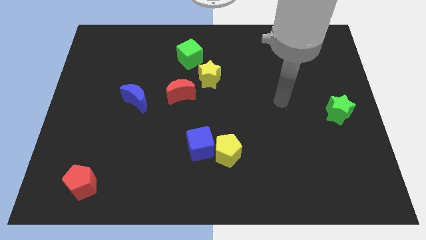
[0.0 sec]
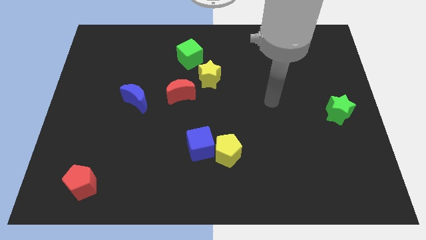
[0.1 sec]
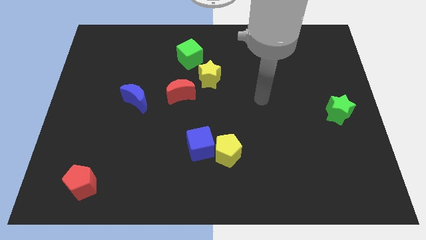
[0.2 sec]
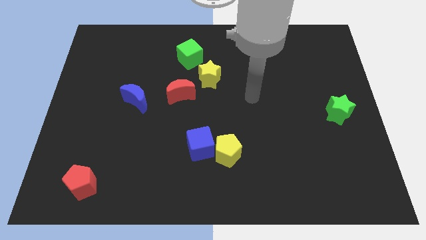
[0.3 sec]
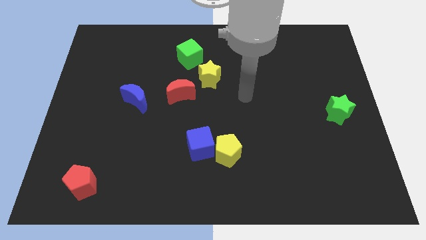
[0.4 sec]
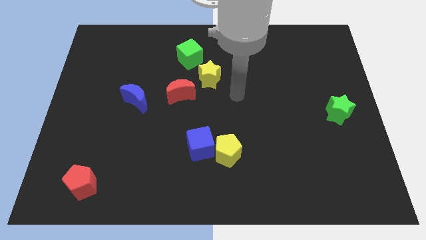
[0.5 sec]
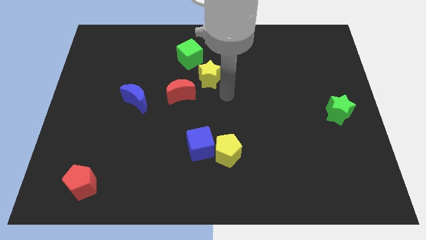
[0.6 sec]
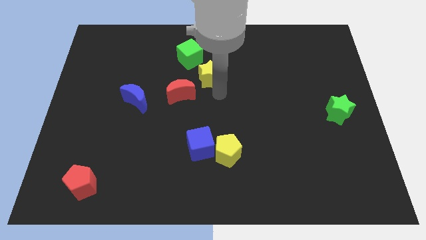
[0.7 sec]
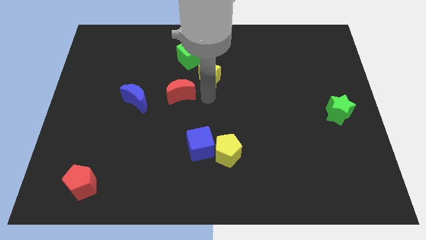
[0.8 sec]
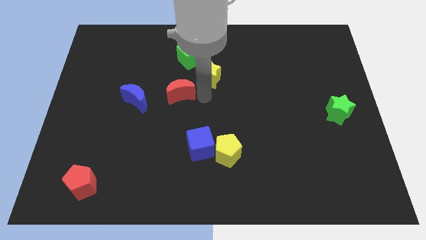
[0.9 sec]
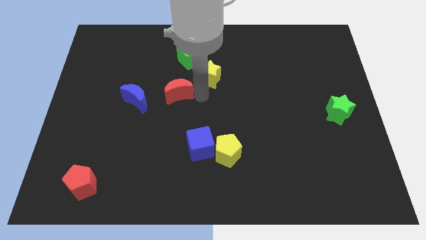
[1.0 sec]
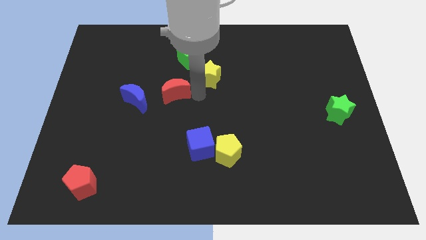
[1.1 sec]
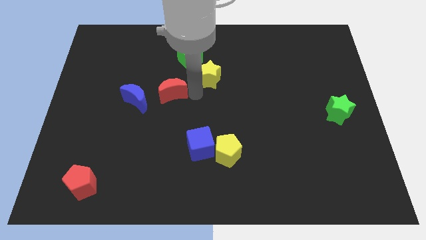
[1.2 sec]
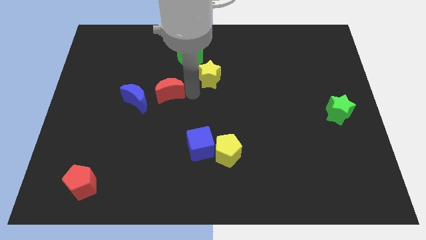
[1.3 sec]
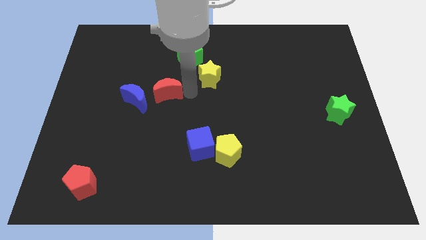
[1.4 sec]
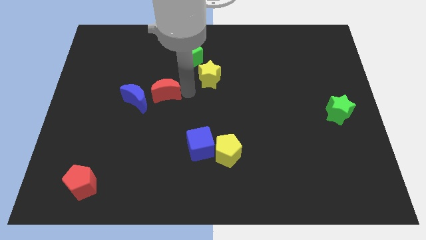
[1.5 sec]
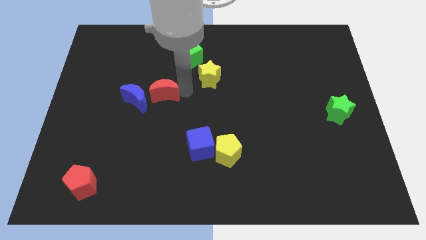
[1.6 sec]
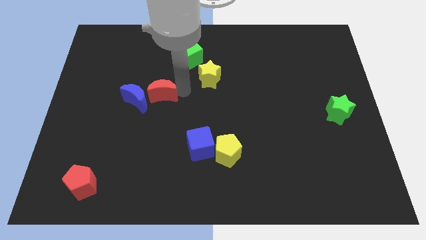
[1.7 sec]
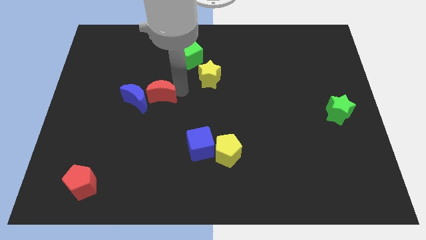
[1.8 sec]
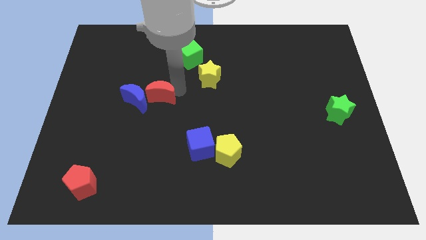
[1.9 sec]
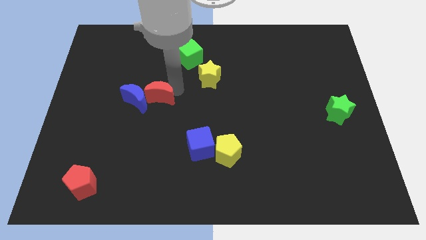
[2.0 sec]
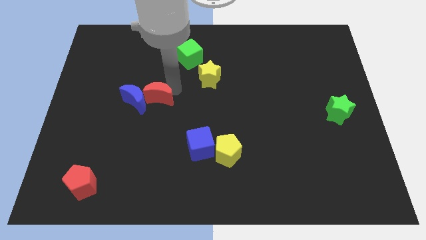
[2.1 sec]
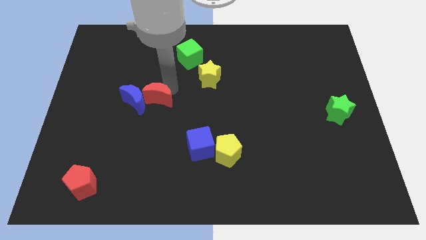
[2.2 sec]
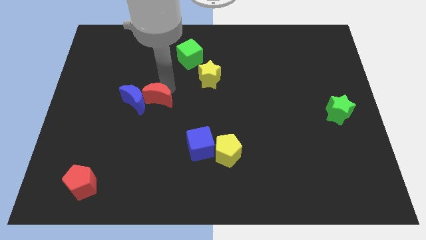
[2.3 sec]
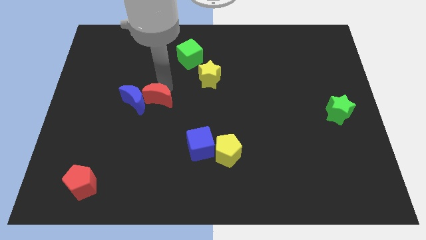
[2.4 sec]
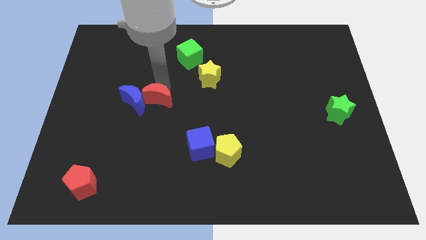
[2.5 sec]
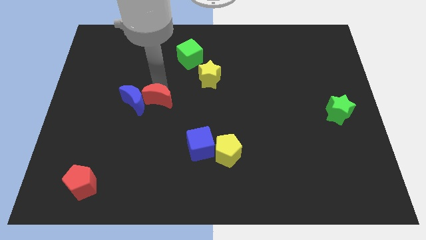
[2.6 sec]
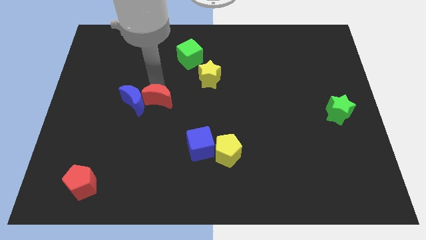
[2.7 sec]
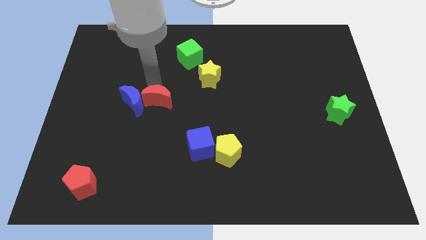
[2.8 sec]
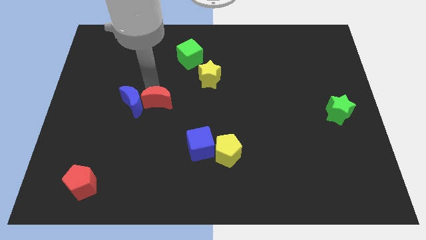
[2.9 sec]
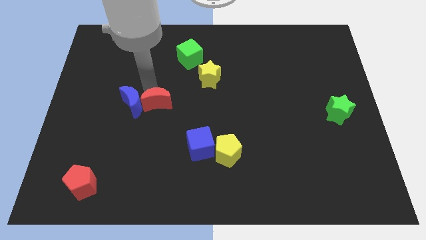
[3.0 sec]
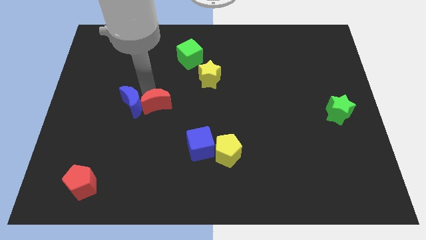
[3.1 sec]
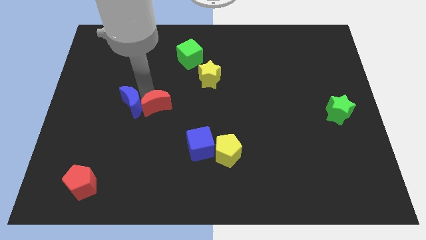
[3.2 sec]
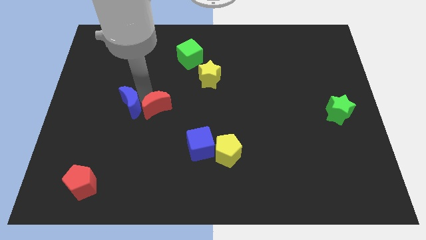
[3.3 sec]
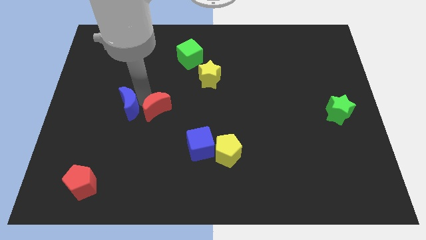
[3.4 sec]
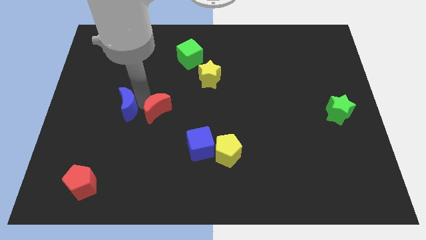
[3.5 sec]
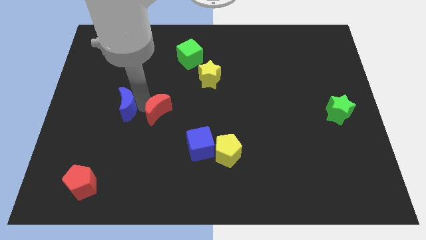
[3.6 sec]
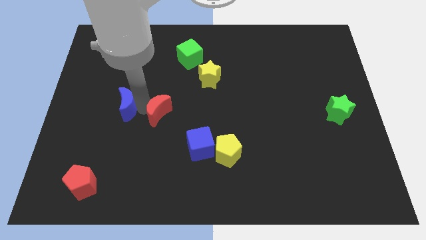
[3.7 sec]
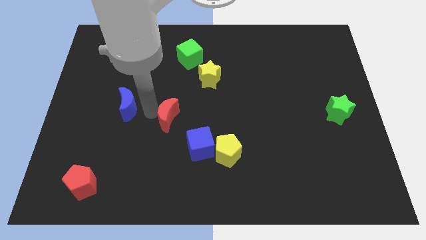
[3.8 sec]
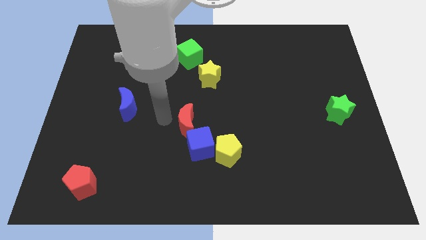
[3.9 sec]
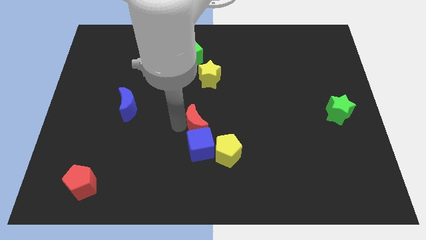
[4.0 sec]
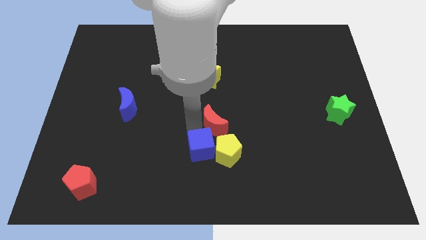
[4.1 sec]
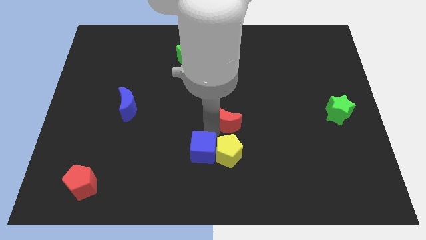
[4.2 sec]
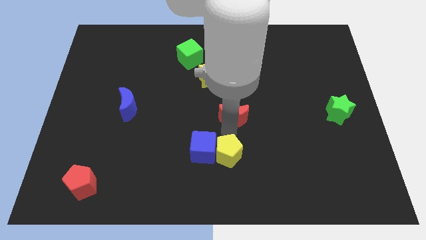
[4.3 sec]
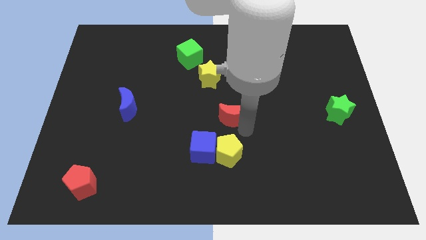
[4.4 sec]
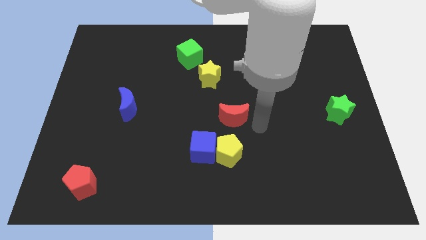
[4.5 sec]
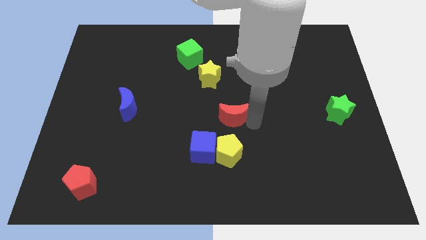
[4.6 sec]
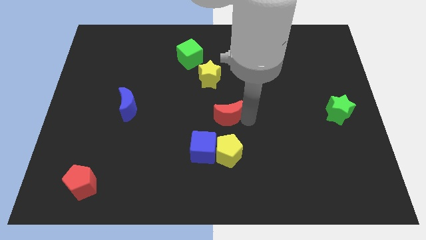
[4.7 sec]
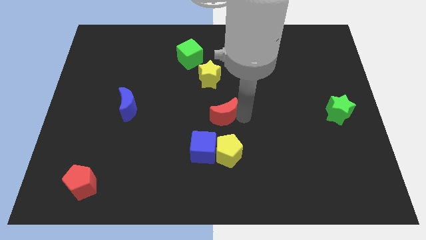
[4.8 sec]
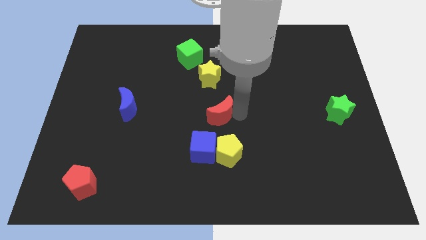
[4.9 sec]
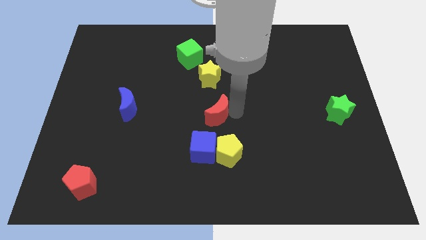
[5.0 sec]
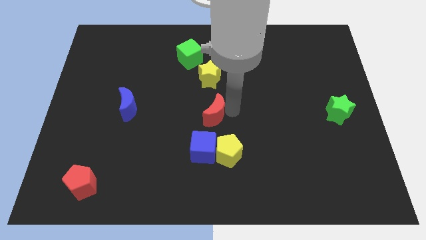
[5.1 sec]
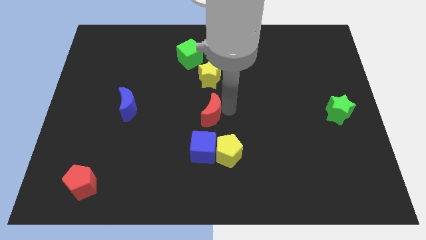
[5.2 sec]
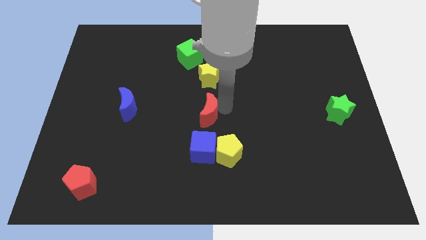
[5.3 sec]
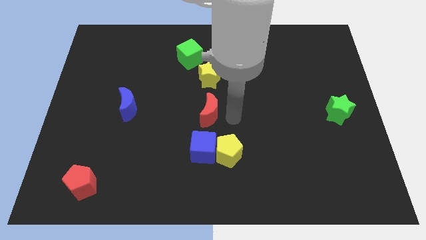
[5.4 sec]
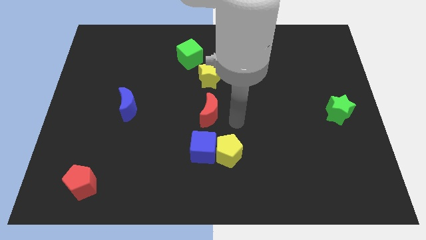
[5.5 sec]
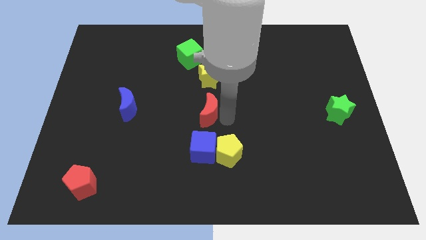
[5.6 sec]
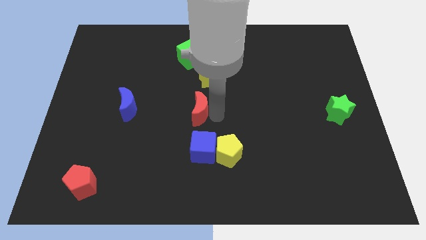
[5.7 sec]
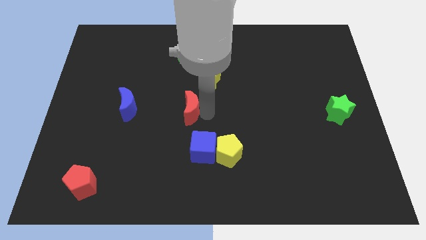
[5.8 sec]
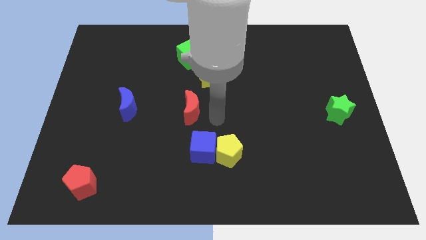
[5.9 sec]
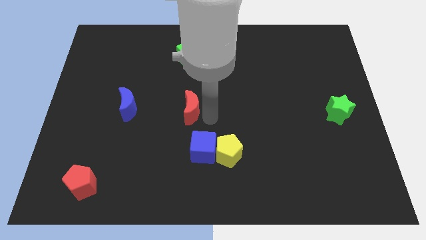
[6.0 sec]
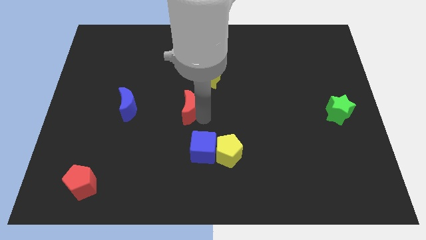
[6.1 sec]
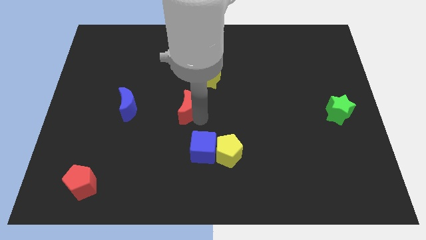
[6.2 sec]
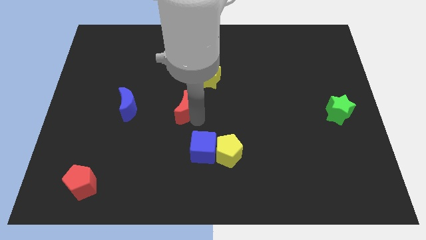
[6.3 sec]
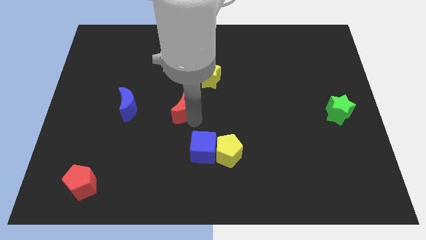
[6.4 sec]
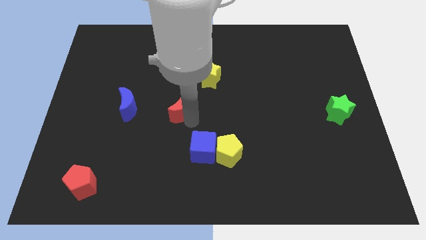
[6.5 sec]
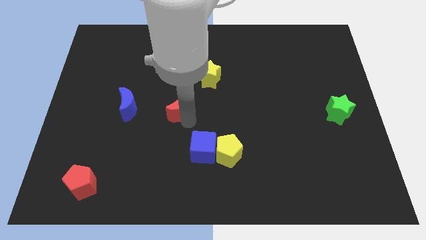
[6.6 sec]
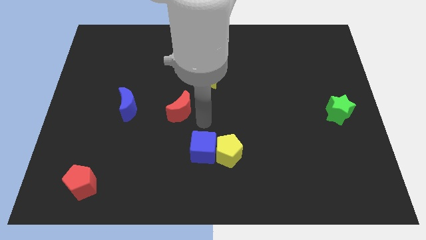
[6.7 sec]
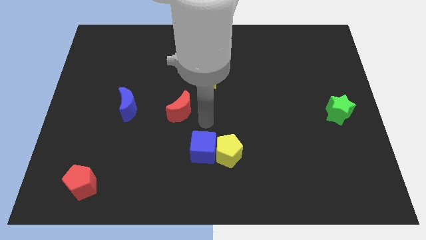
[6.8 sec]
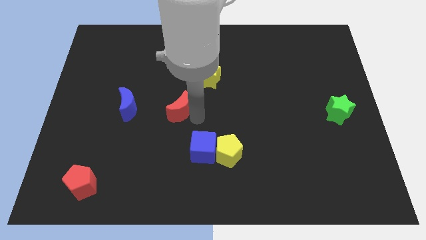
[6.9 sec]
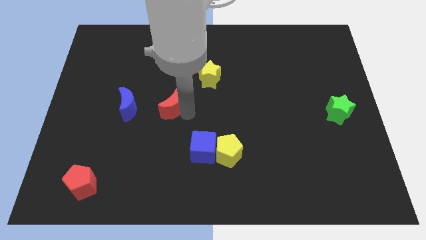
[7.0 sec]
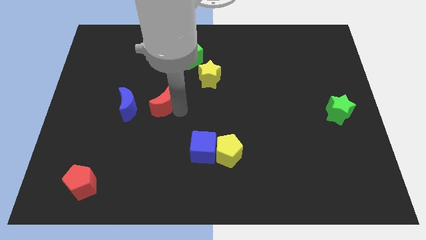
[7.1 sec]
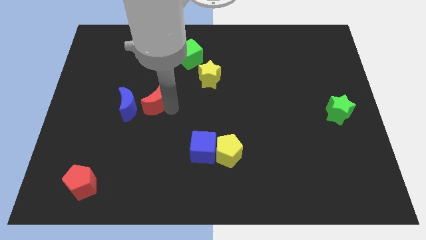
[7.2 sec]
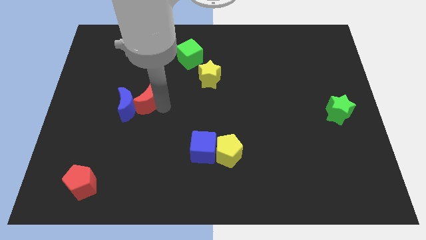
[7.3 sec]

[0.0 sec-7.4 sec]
slide the red moon to the left somewhat

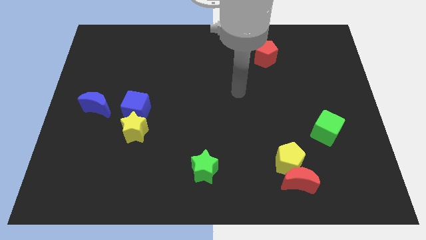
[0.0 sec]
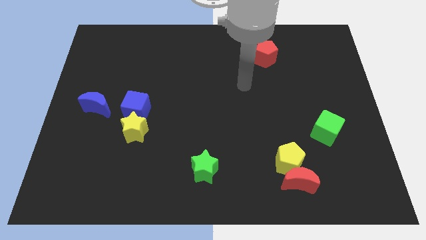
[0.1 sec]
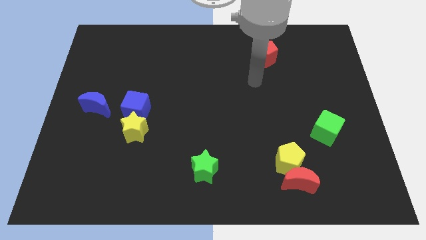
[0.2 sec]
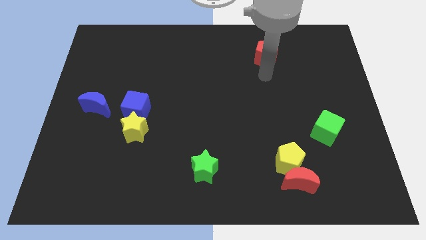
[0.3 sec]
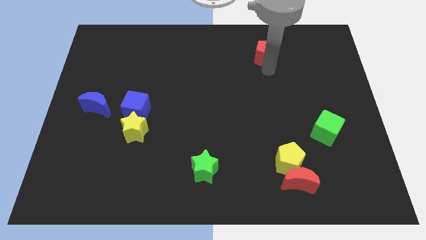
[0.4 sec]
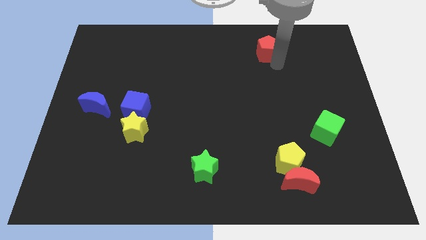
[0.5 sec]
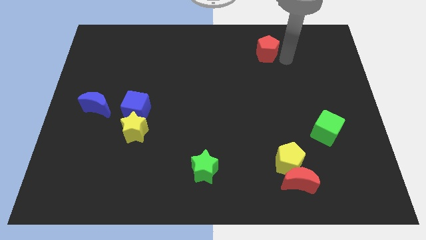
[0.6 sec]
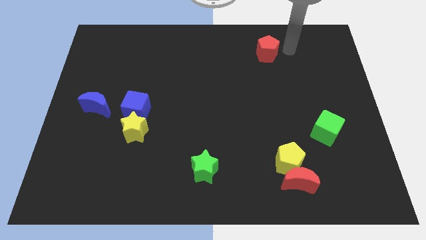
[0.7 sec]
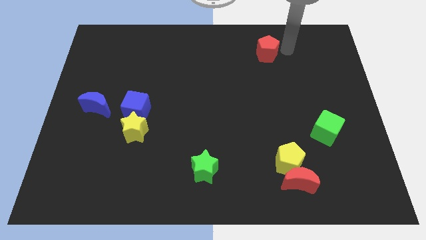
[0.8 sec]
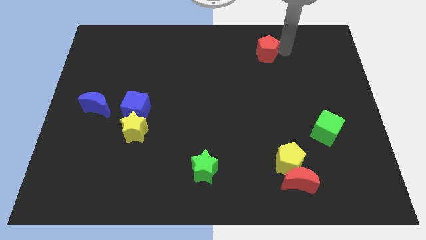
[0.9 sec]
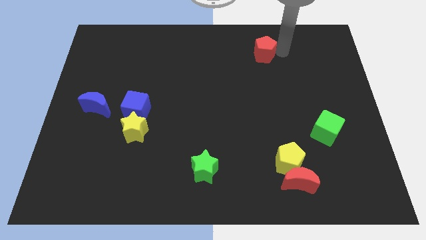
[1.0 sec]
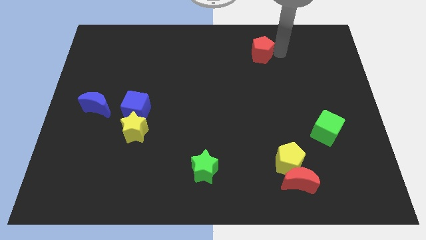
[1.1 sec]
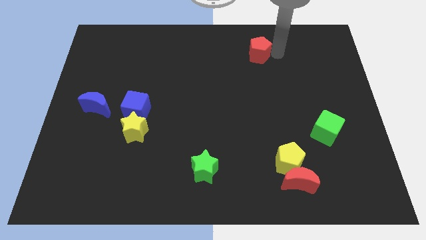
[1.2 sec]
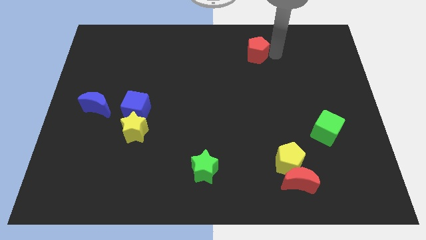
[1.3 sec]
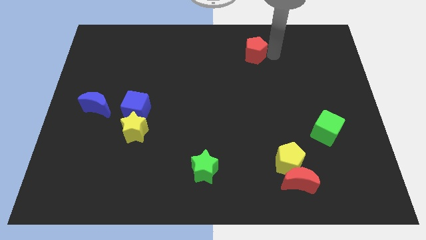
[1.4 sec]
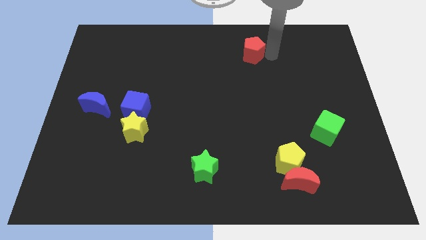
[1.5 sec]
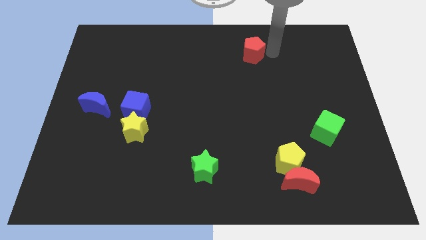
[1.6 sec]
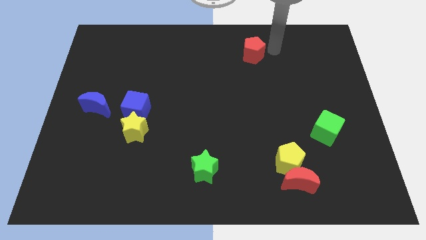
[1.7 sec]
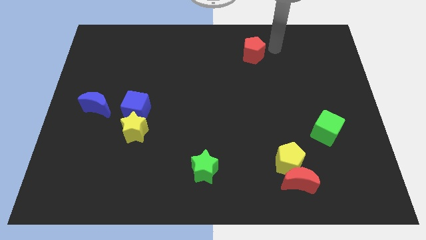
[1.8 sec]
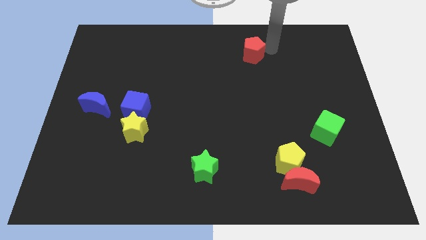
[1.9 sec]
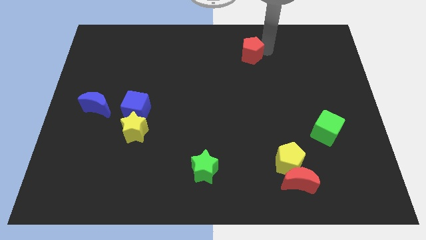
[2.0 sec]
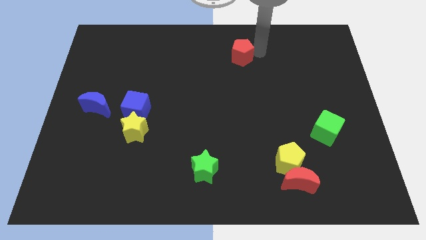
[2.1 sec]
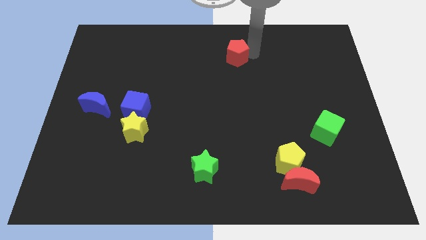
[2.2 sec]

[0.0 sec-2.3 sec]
move the red pentagon left a little bit
